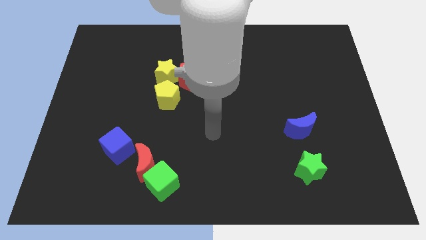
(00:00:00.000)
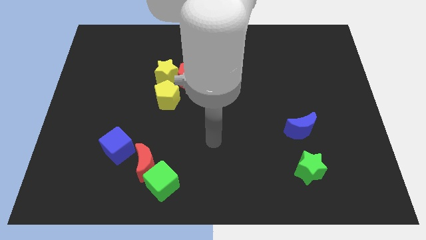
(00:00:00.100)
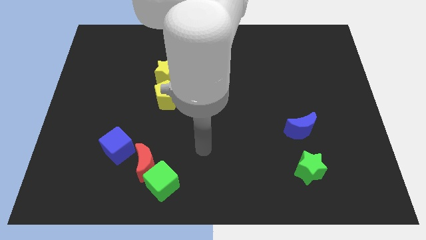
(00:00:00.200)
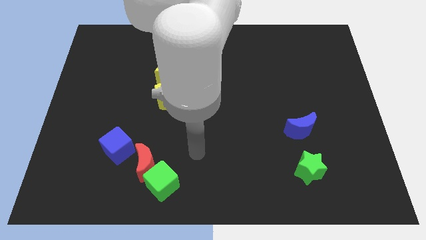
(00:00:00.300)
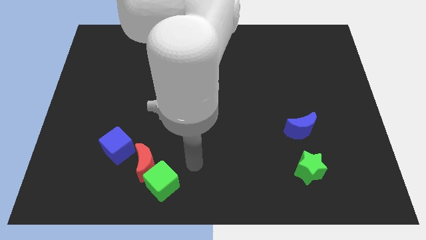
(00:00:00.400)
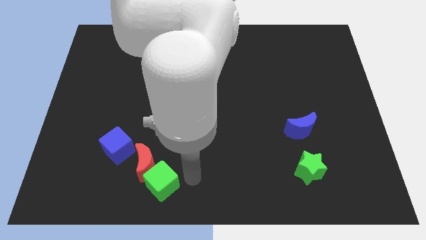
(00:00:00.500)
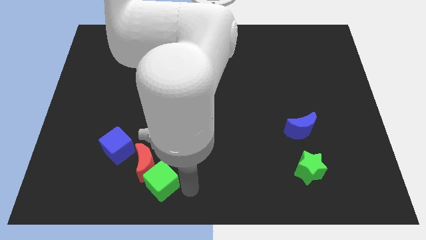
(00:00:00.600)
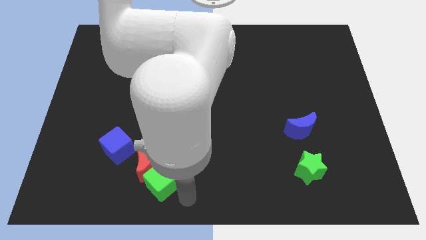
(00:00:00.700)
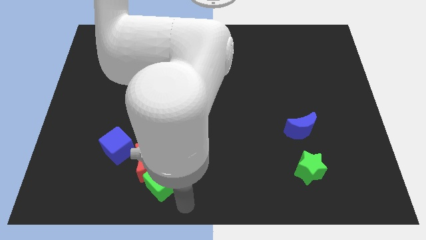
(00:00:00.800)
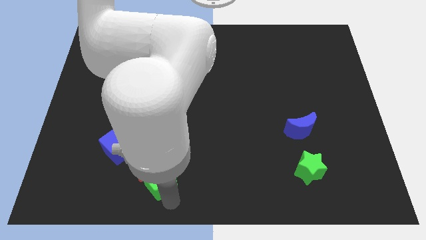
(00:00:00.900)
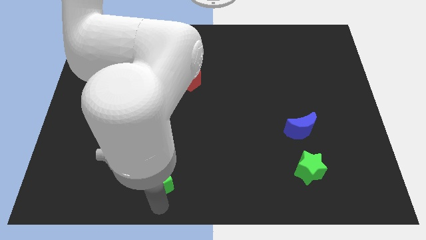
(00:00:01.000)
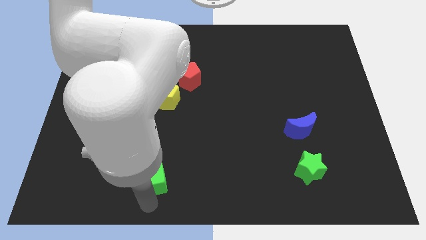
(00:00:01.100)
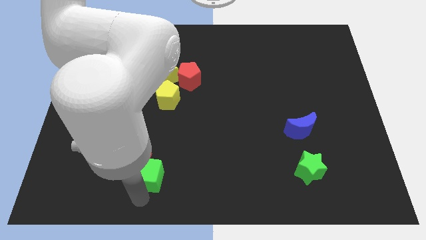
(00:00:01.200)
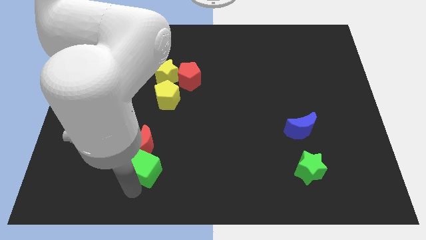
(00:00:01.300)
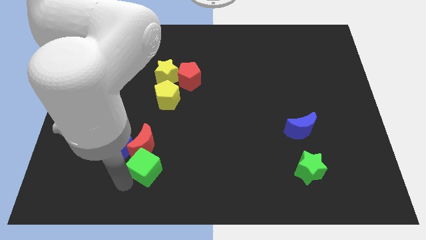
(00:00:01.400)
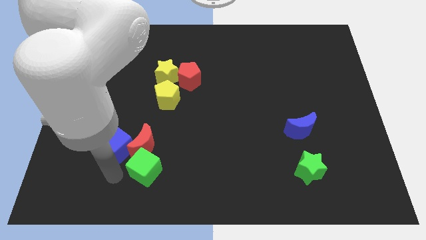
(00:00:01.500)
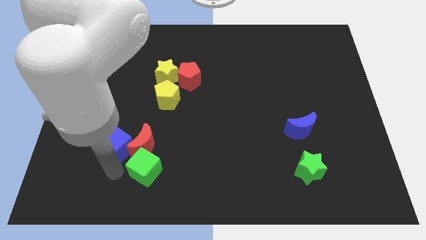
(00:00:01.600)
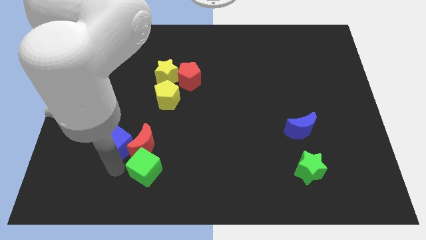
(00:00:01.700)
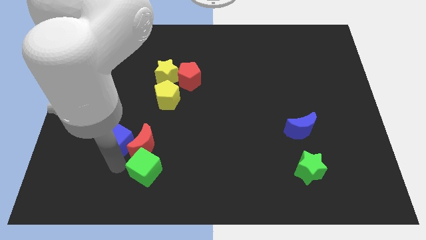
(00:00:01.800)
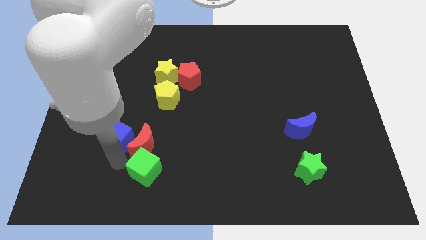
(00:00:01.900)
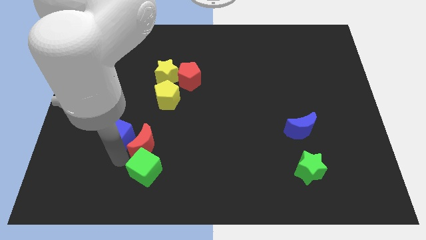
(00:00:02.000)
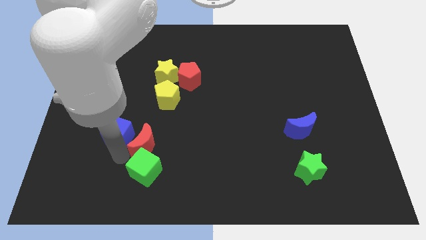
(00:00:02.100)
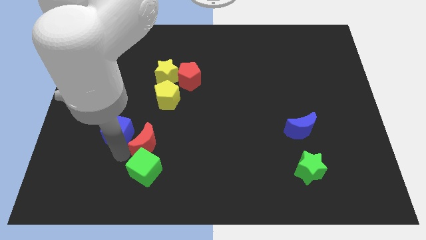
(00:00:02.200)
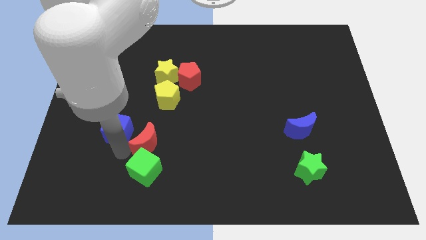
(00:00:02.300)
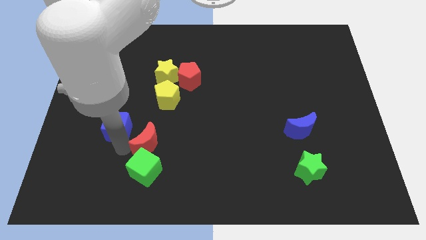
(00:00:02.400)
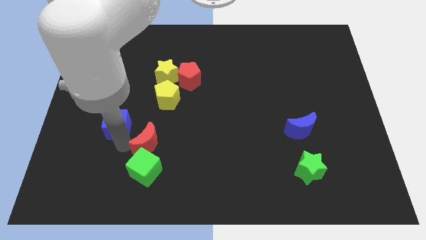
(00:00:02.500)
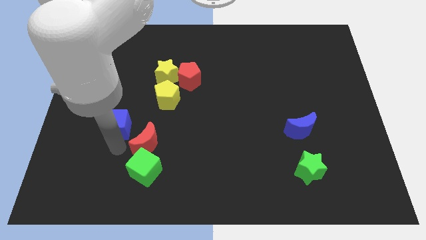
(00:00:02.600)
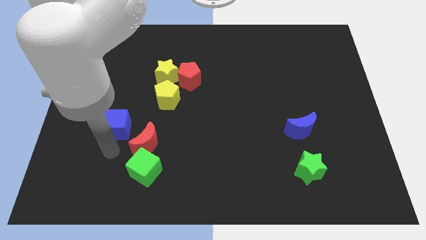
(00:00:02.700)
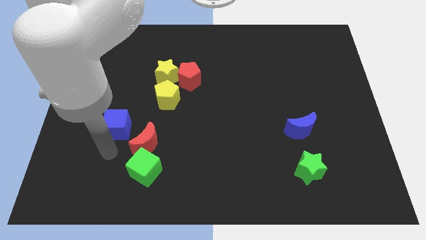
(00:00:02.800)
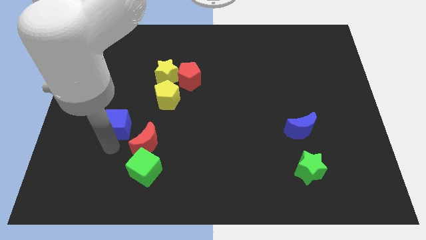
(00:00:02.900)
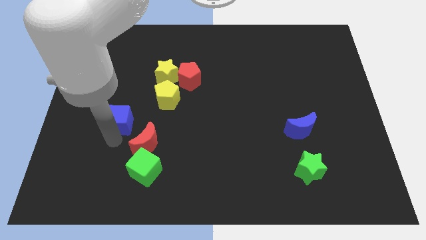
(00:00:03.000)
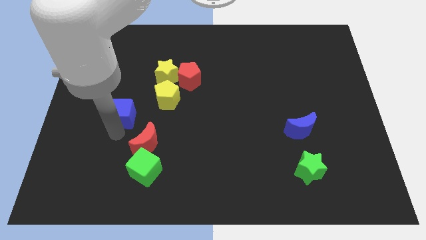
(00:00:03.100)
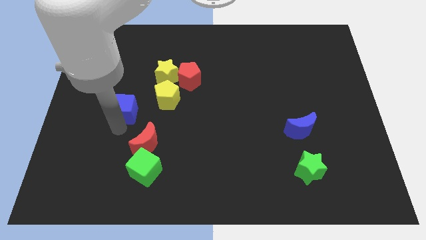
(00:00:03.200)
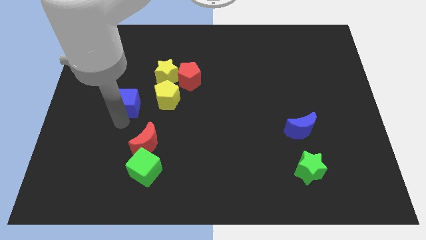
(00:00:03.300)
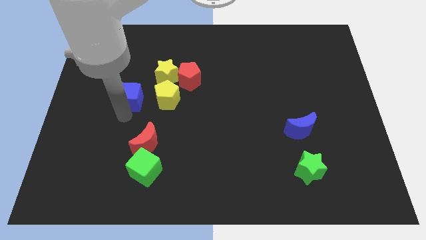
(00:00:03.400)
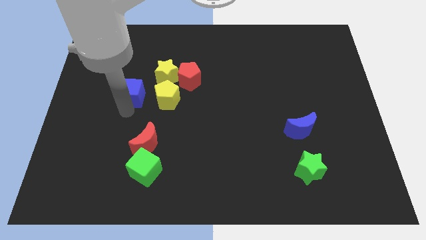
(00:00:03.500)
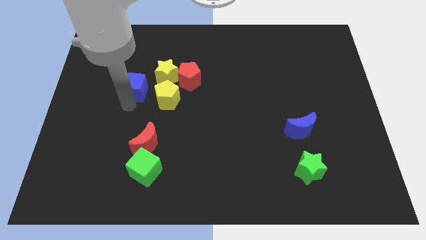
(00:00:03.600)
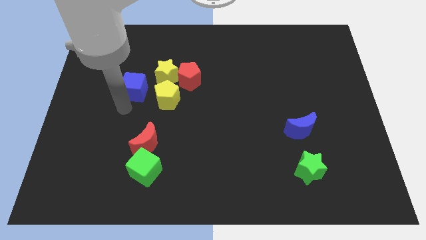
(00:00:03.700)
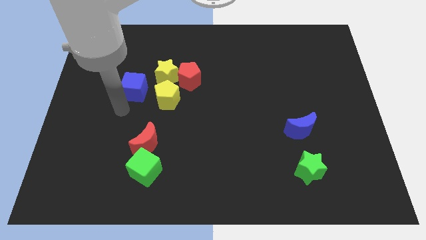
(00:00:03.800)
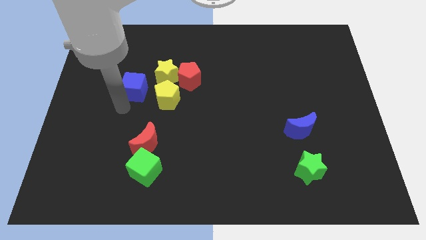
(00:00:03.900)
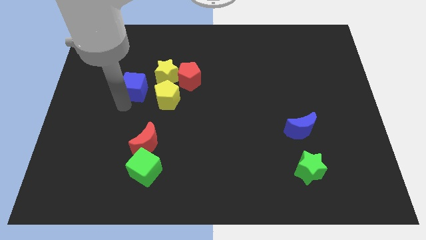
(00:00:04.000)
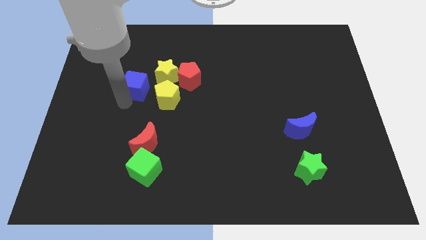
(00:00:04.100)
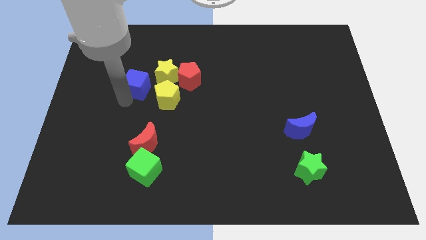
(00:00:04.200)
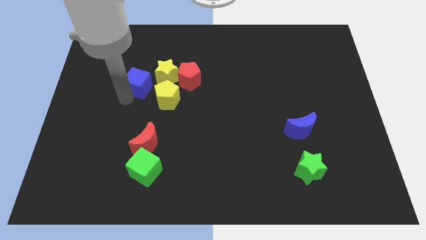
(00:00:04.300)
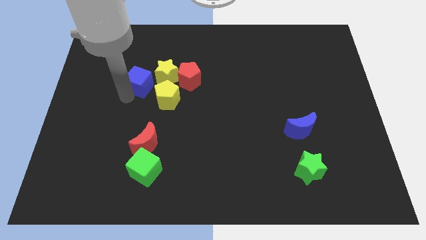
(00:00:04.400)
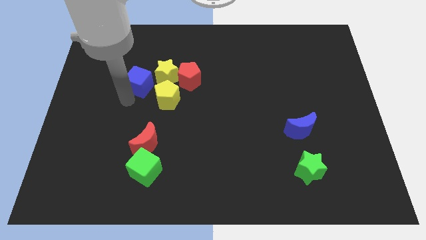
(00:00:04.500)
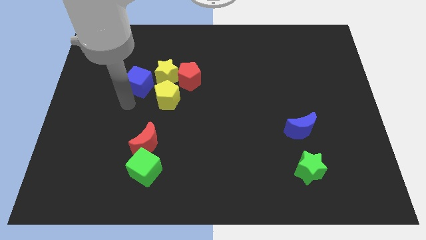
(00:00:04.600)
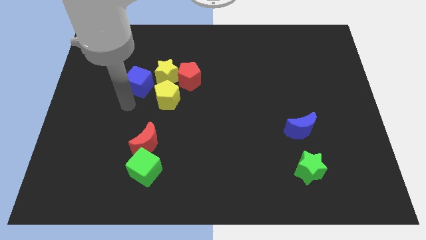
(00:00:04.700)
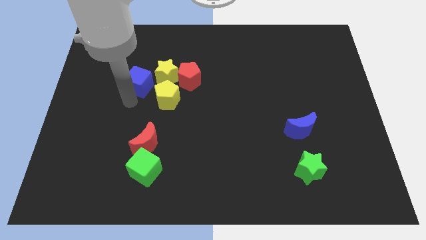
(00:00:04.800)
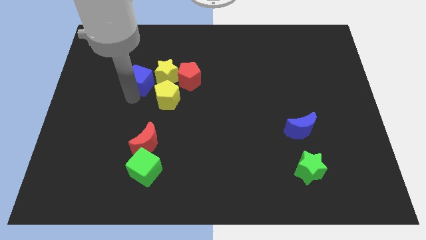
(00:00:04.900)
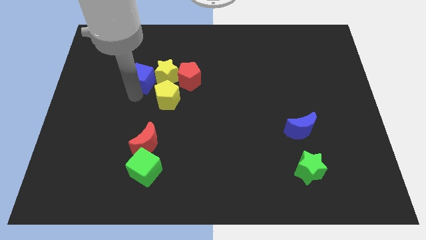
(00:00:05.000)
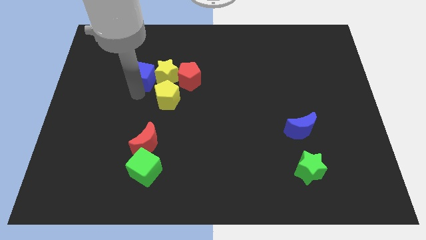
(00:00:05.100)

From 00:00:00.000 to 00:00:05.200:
push the blue cube to the top left of the yellow star

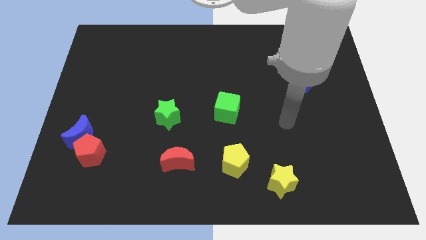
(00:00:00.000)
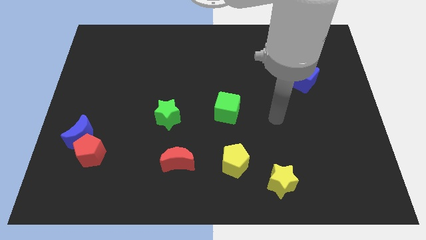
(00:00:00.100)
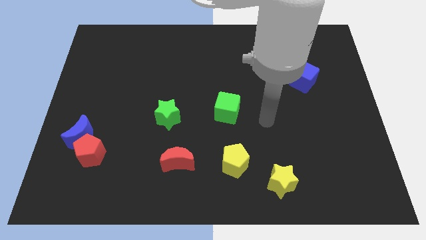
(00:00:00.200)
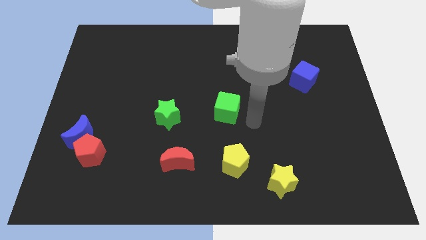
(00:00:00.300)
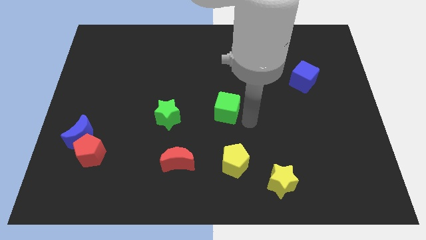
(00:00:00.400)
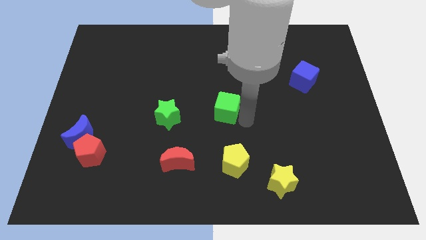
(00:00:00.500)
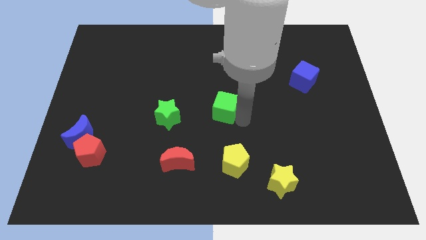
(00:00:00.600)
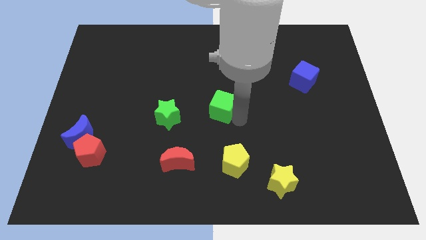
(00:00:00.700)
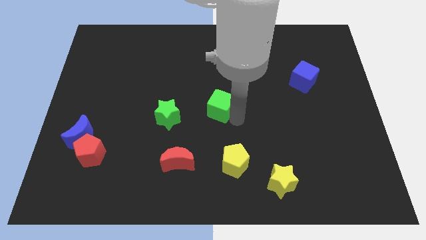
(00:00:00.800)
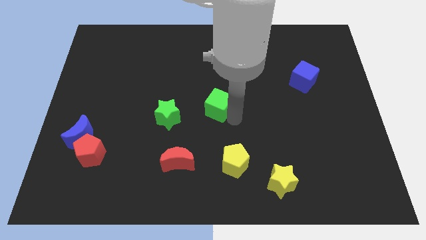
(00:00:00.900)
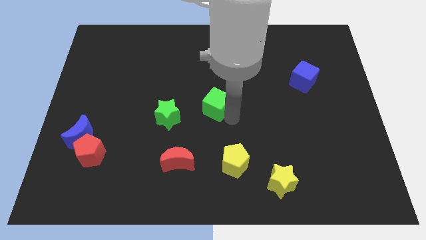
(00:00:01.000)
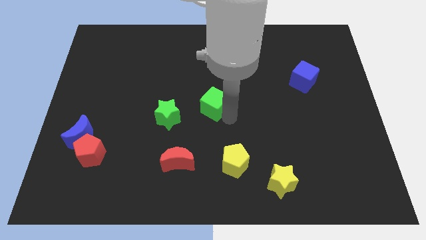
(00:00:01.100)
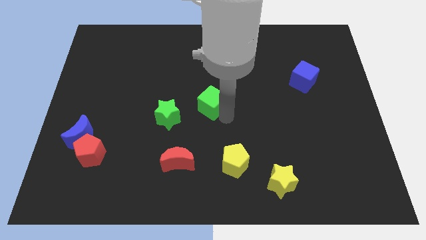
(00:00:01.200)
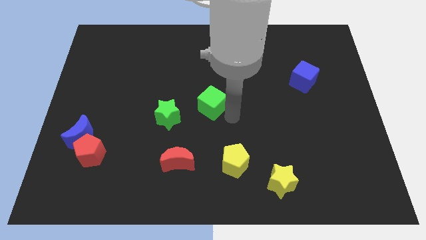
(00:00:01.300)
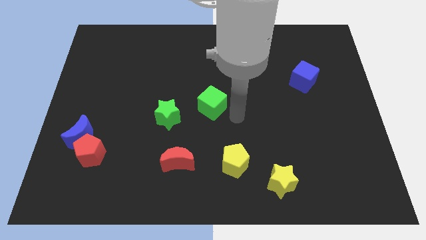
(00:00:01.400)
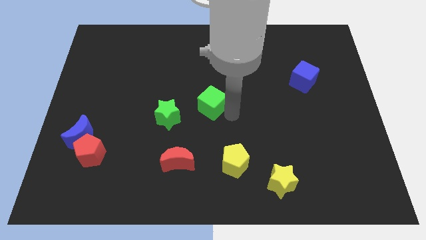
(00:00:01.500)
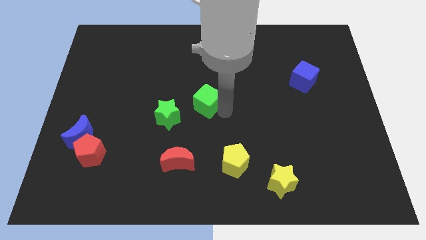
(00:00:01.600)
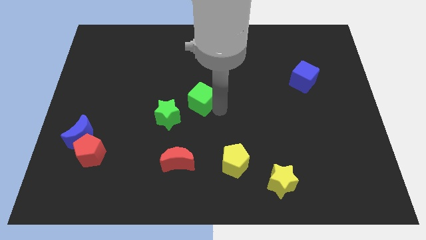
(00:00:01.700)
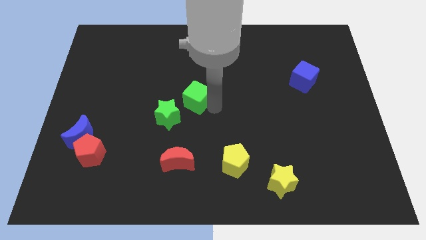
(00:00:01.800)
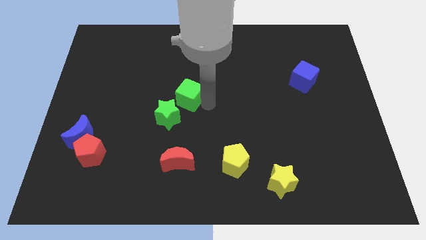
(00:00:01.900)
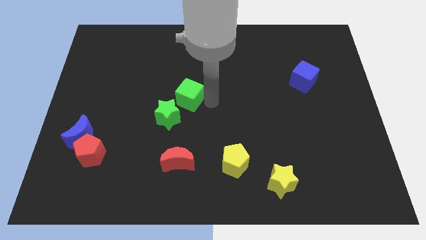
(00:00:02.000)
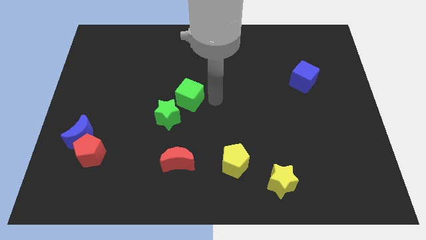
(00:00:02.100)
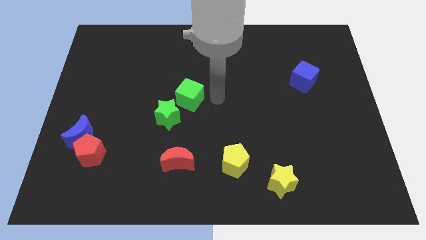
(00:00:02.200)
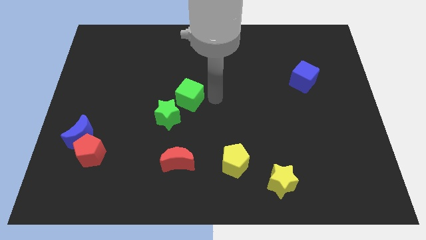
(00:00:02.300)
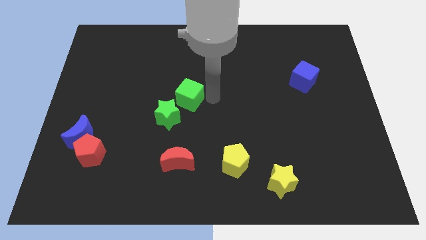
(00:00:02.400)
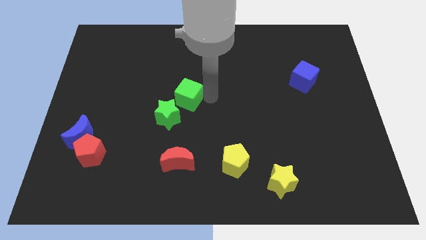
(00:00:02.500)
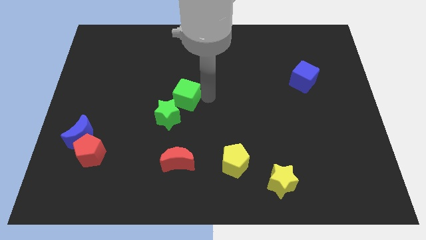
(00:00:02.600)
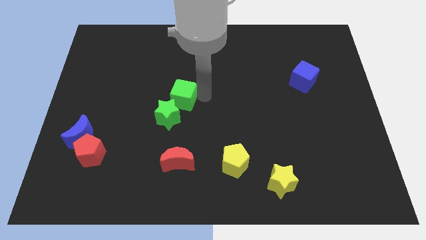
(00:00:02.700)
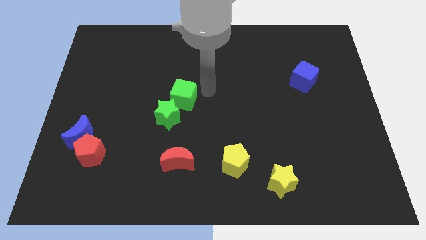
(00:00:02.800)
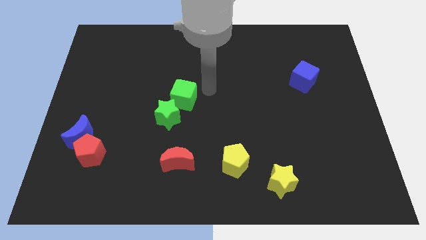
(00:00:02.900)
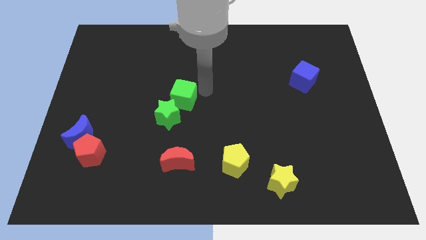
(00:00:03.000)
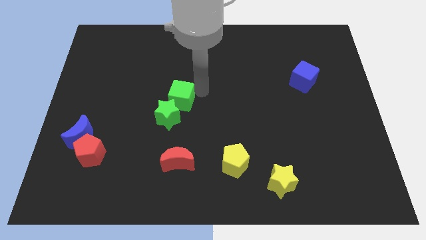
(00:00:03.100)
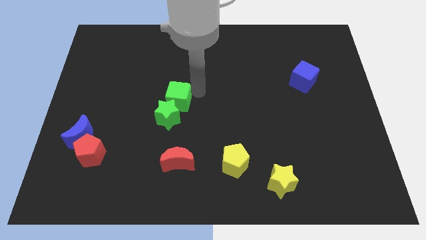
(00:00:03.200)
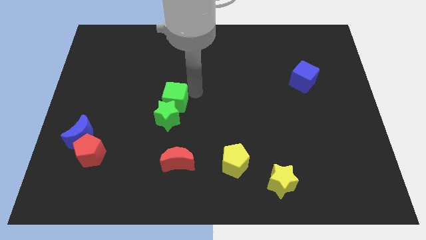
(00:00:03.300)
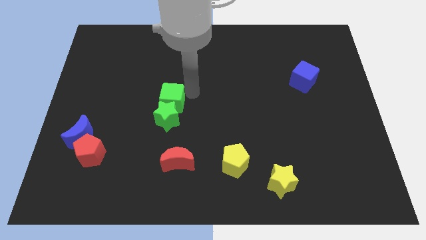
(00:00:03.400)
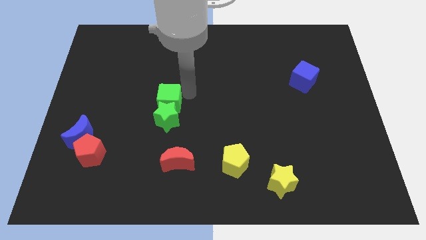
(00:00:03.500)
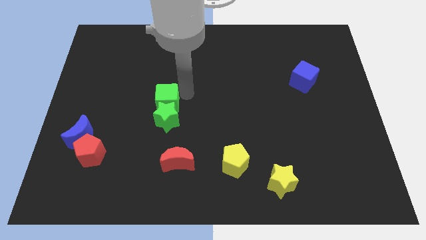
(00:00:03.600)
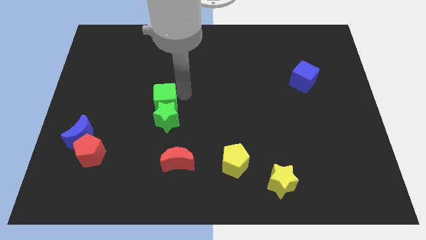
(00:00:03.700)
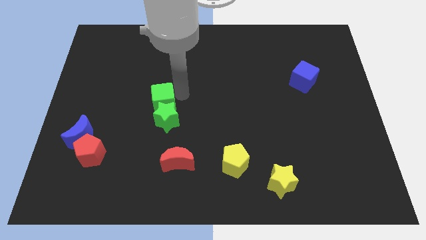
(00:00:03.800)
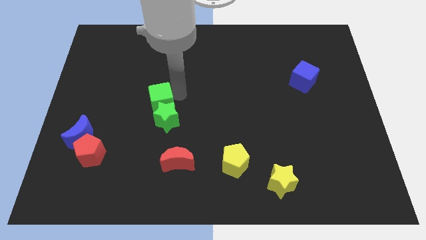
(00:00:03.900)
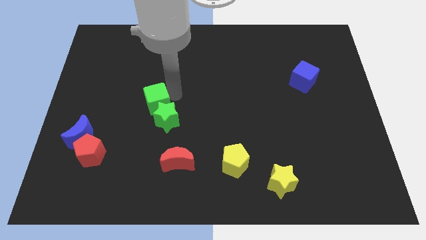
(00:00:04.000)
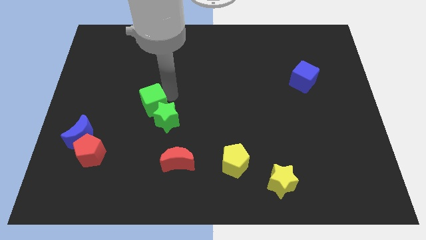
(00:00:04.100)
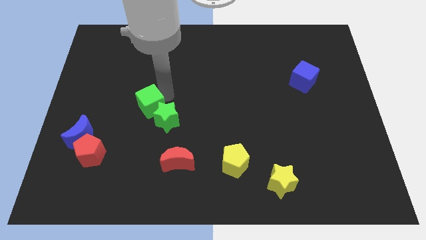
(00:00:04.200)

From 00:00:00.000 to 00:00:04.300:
push the green cube left of the green star
